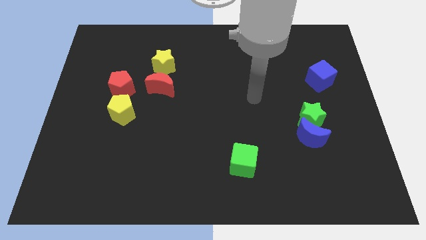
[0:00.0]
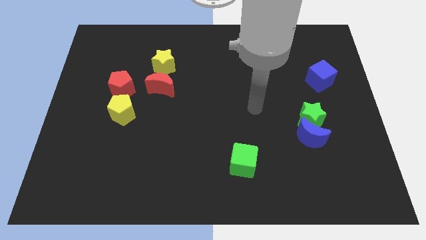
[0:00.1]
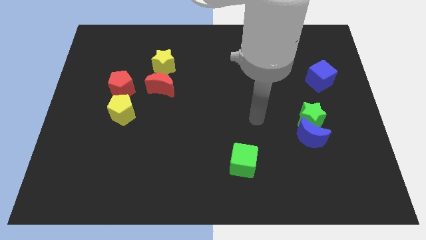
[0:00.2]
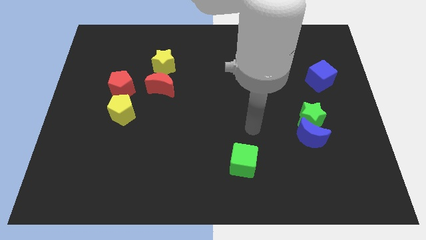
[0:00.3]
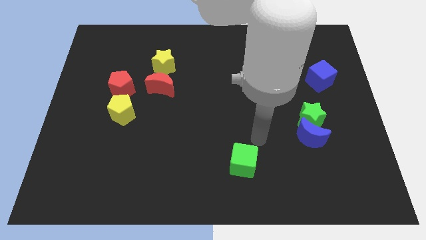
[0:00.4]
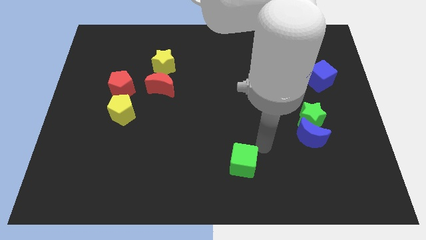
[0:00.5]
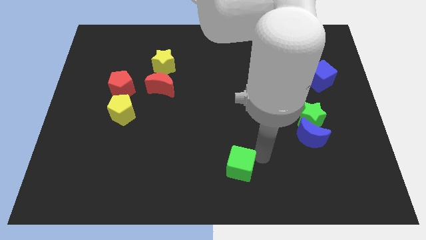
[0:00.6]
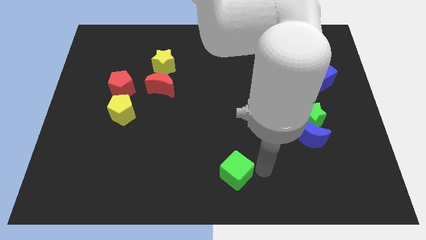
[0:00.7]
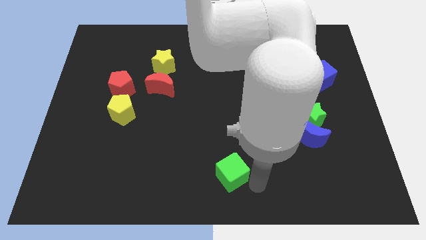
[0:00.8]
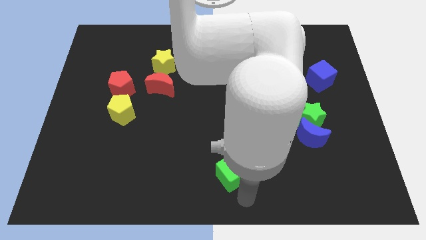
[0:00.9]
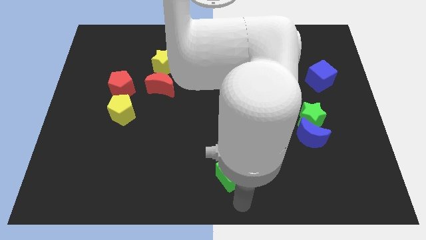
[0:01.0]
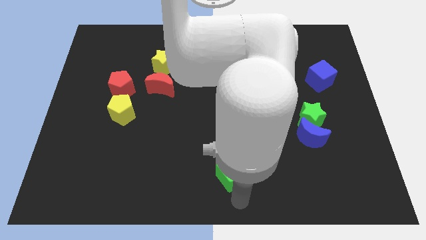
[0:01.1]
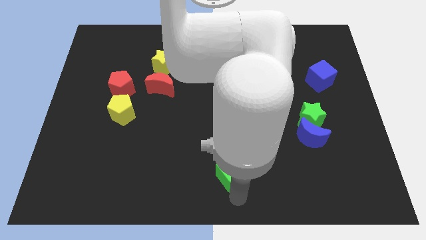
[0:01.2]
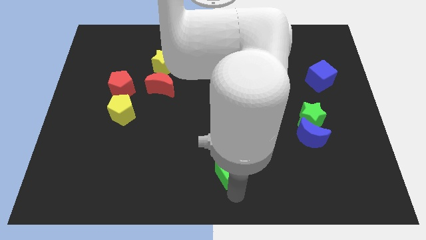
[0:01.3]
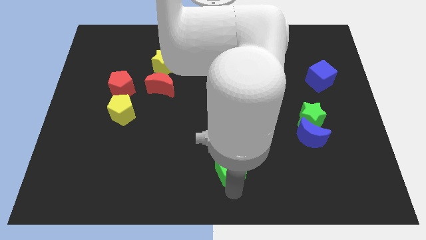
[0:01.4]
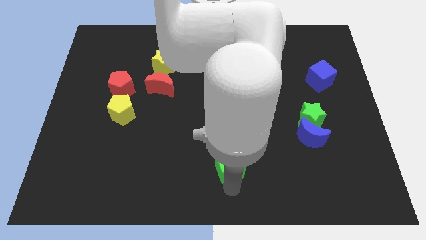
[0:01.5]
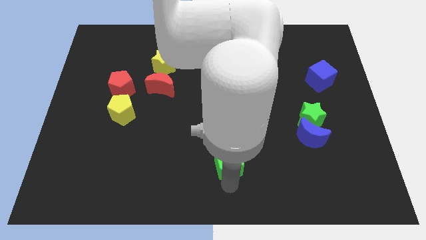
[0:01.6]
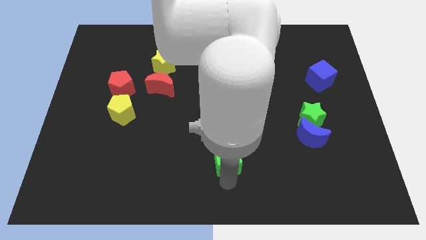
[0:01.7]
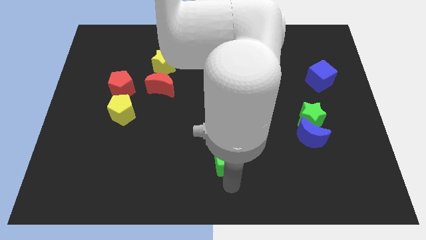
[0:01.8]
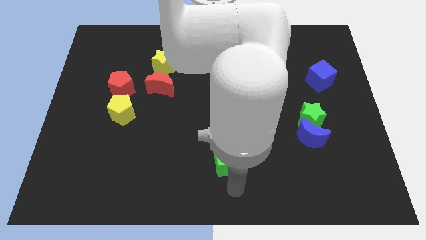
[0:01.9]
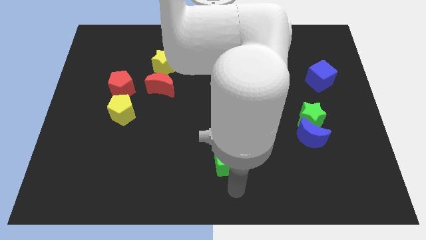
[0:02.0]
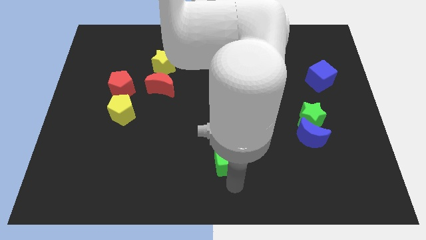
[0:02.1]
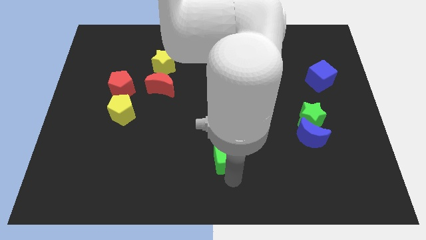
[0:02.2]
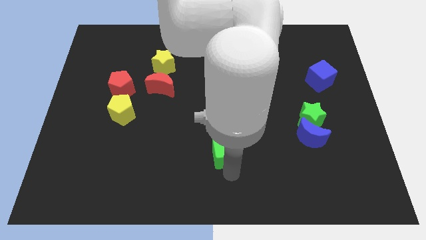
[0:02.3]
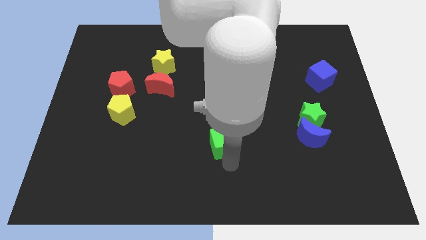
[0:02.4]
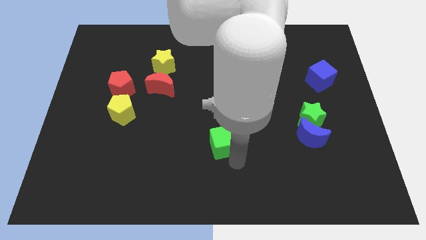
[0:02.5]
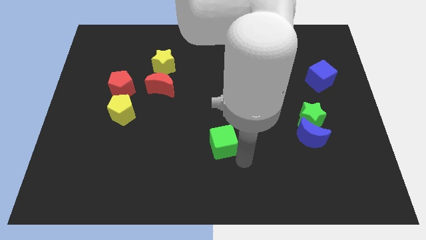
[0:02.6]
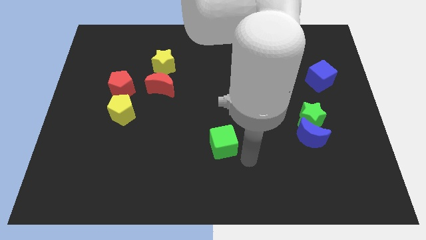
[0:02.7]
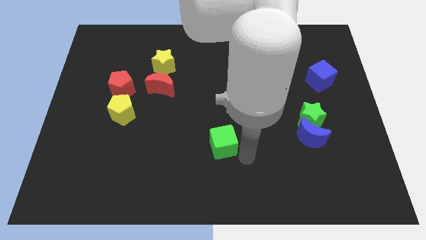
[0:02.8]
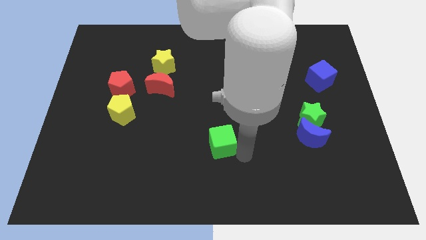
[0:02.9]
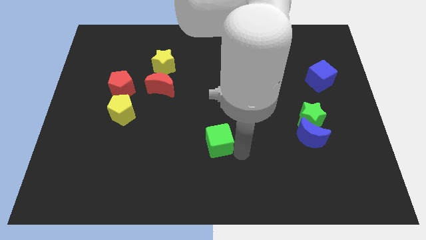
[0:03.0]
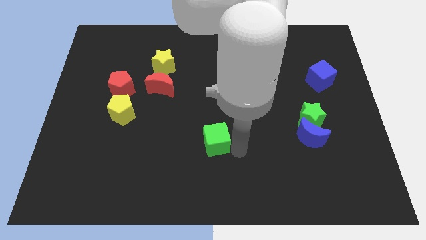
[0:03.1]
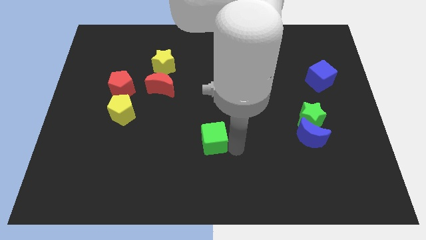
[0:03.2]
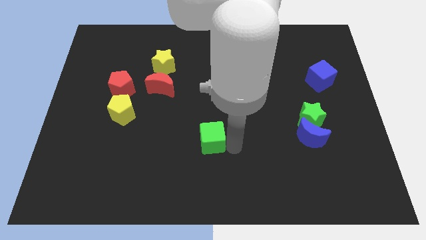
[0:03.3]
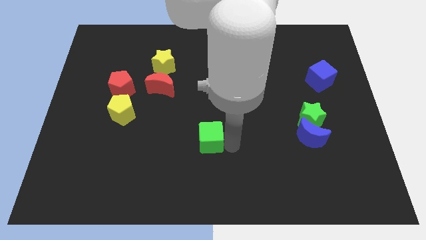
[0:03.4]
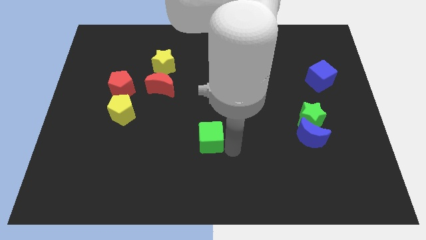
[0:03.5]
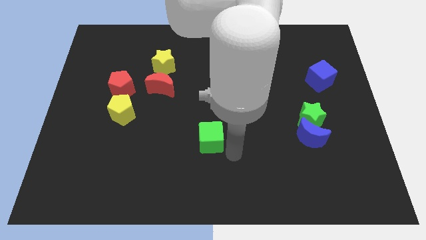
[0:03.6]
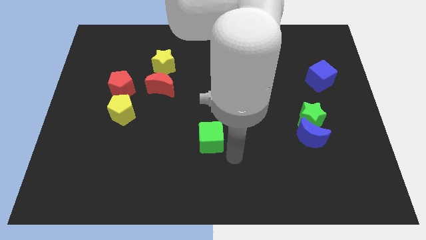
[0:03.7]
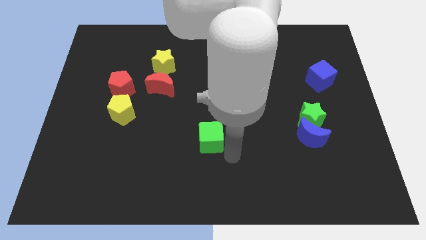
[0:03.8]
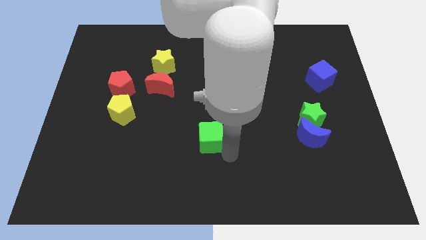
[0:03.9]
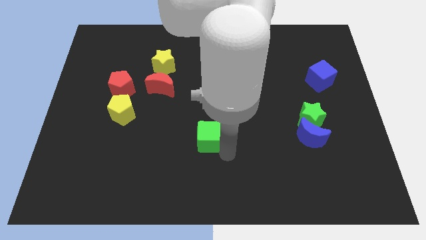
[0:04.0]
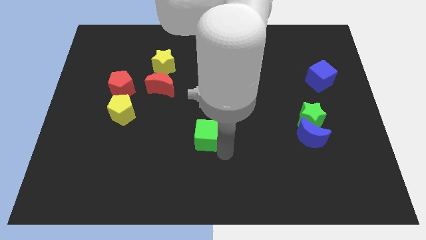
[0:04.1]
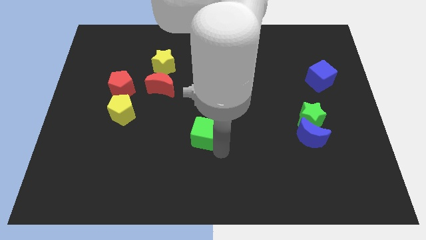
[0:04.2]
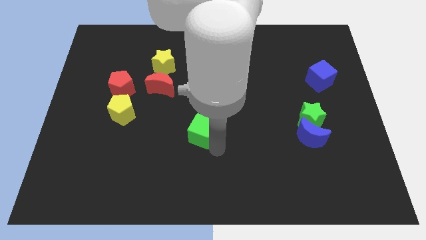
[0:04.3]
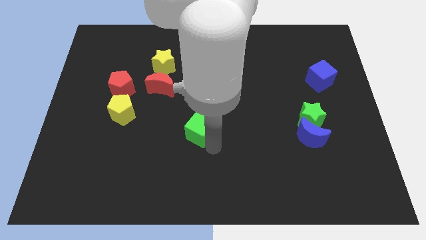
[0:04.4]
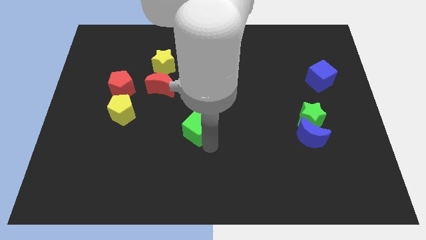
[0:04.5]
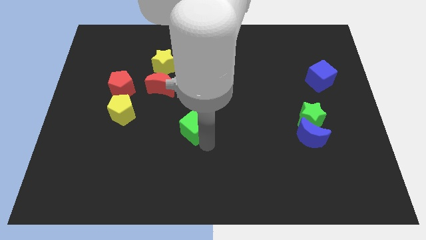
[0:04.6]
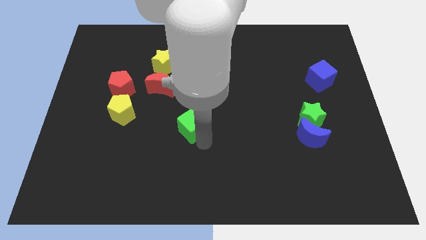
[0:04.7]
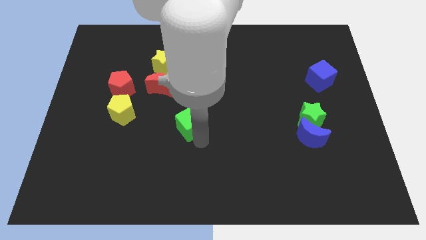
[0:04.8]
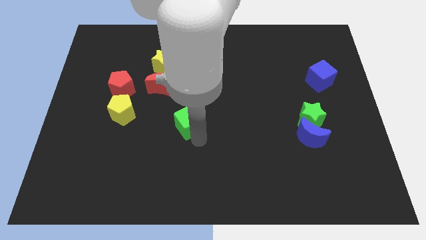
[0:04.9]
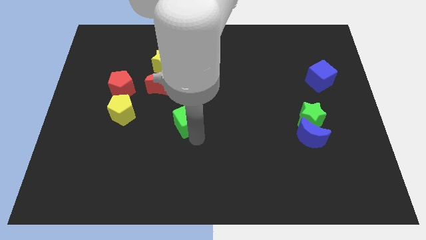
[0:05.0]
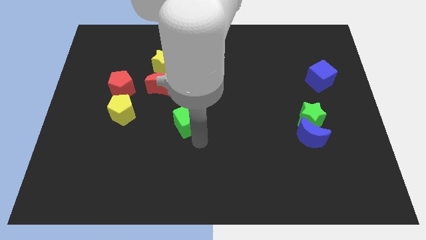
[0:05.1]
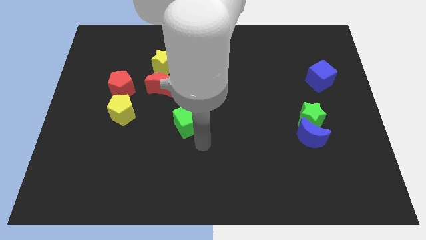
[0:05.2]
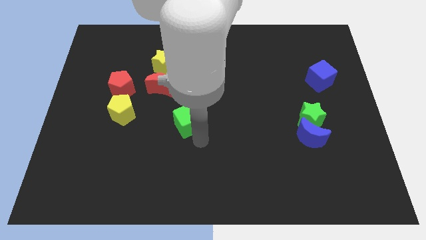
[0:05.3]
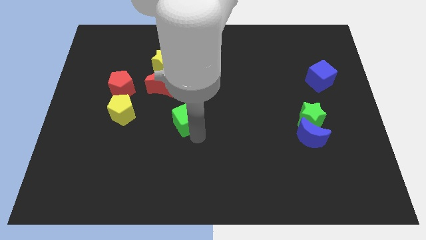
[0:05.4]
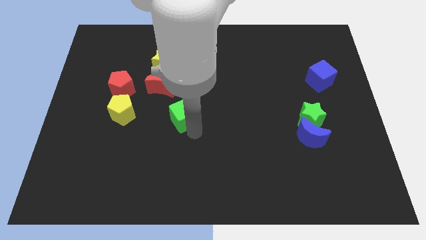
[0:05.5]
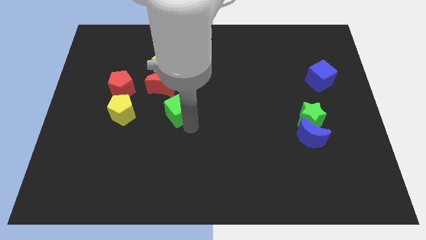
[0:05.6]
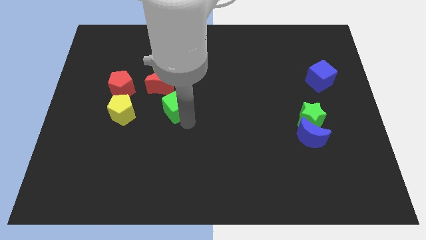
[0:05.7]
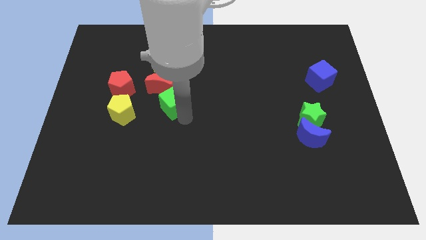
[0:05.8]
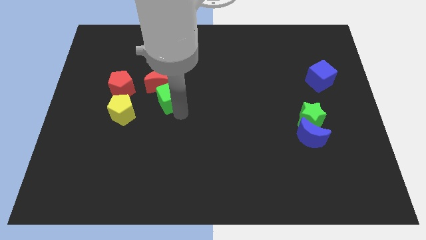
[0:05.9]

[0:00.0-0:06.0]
slide the green cube close to the red moon

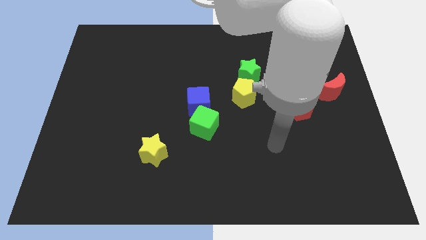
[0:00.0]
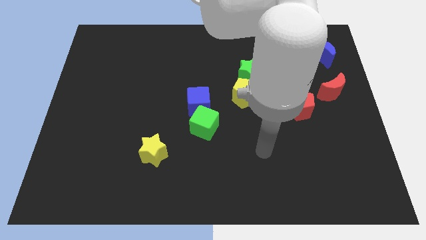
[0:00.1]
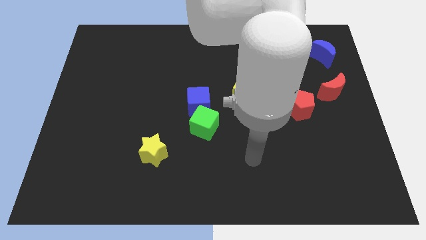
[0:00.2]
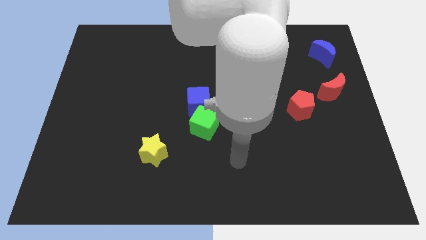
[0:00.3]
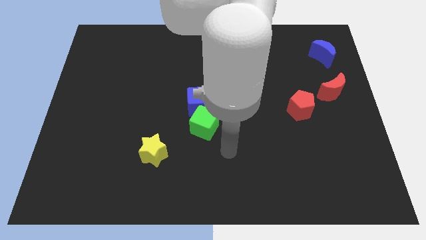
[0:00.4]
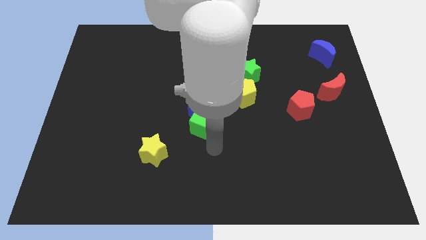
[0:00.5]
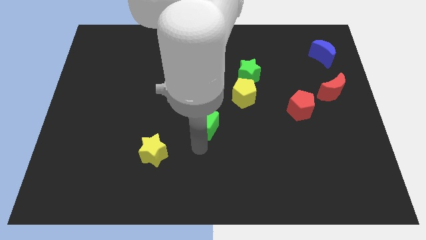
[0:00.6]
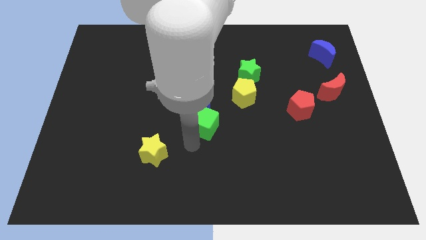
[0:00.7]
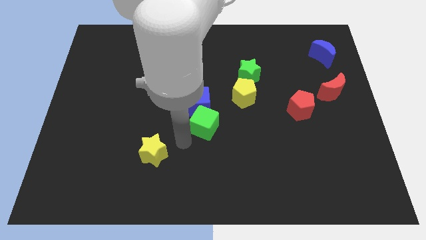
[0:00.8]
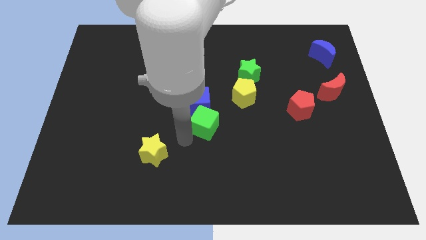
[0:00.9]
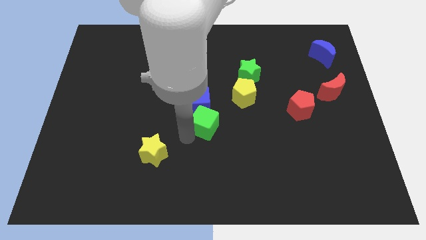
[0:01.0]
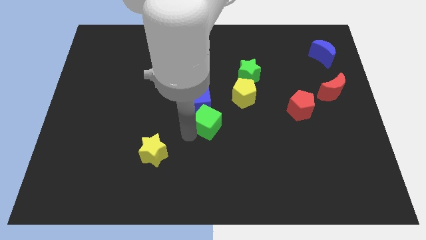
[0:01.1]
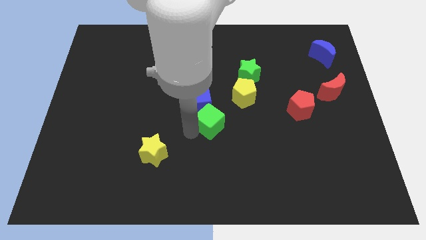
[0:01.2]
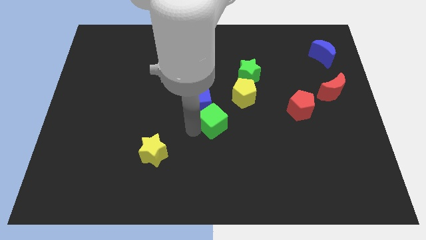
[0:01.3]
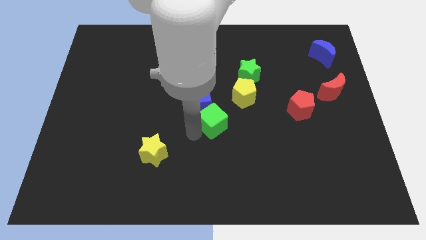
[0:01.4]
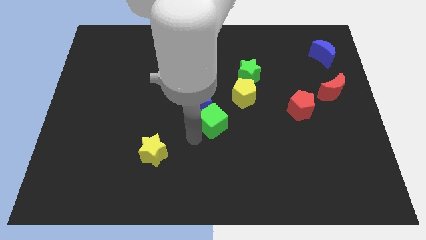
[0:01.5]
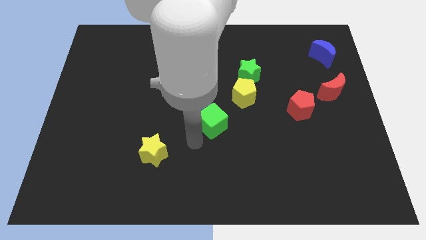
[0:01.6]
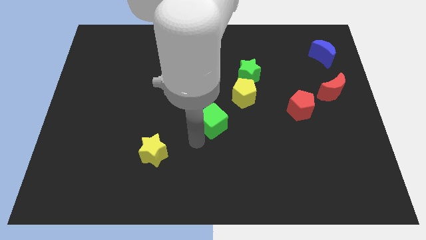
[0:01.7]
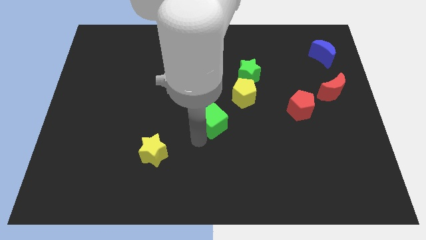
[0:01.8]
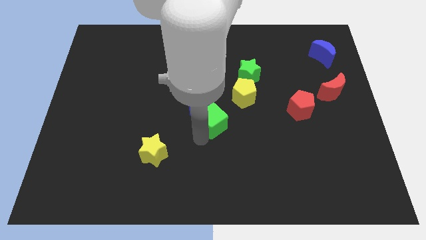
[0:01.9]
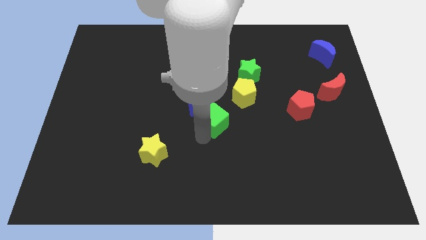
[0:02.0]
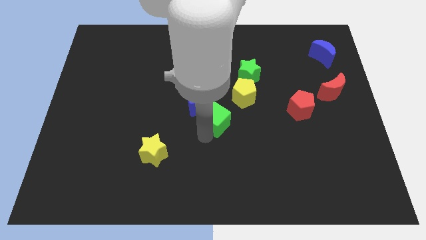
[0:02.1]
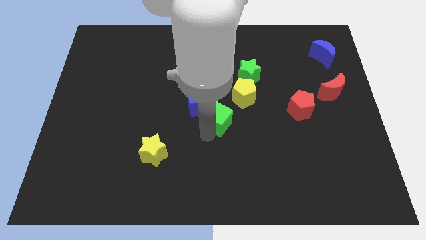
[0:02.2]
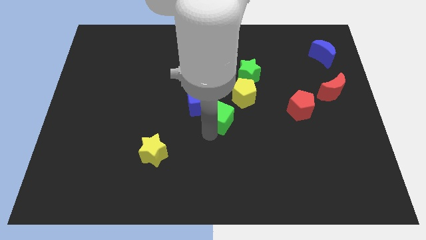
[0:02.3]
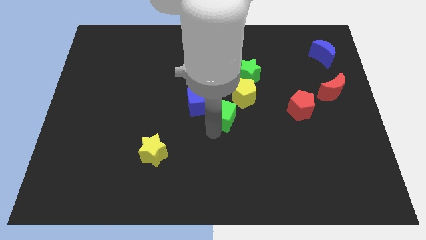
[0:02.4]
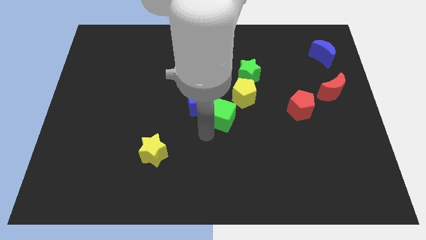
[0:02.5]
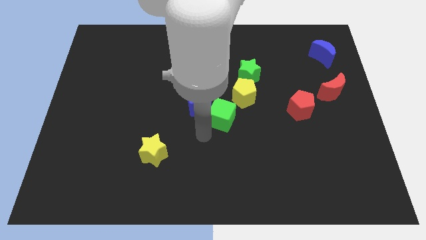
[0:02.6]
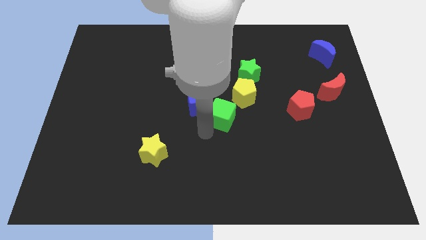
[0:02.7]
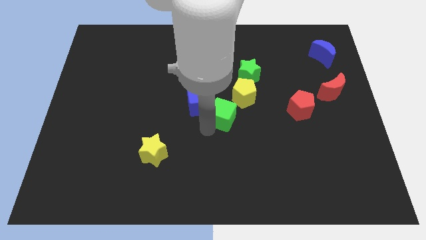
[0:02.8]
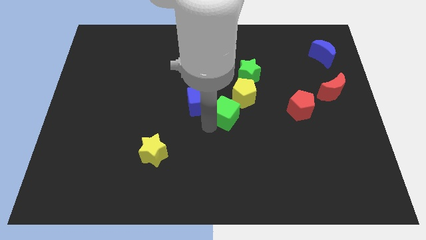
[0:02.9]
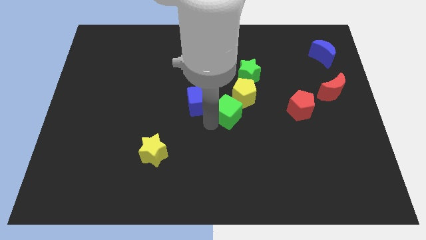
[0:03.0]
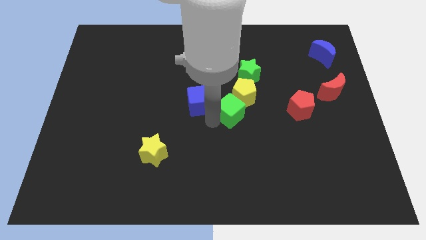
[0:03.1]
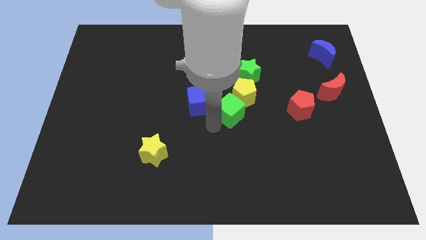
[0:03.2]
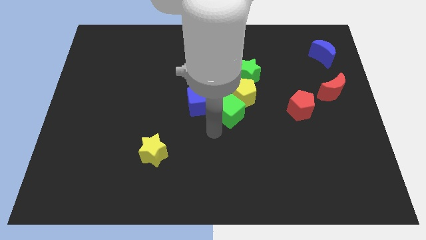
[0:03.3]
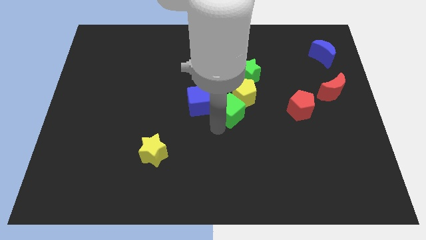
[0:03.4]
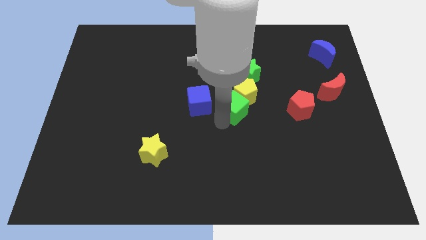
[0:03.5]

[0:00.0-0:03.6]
slide the green cube close to the yellow pentagon
